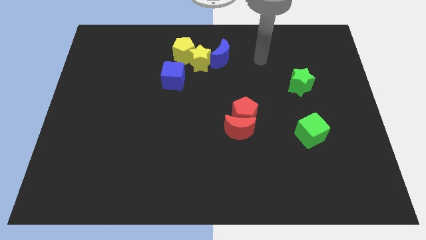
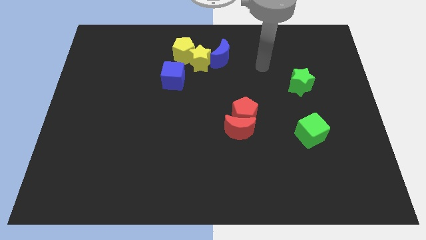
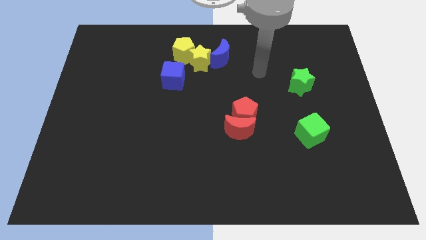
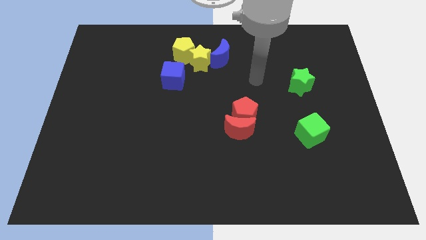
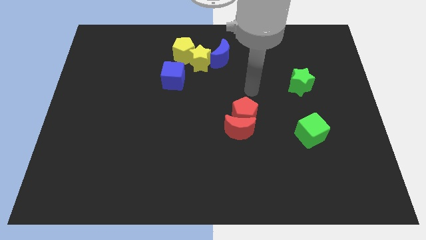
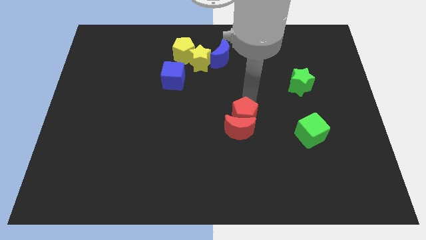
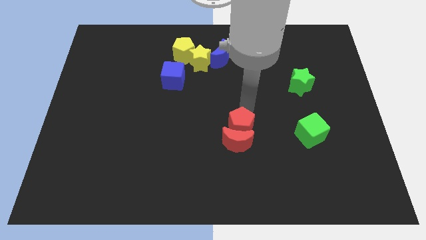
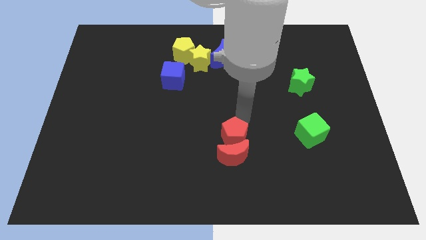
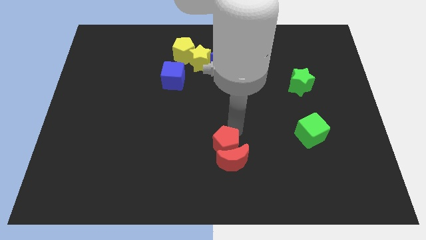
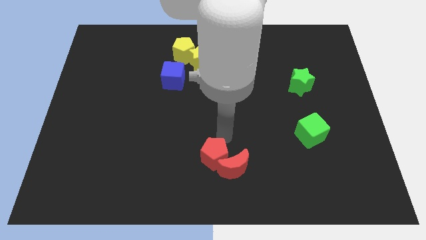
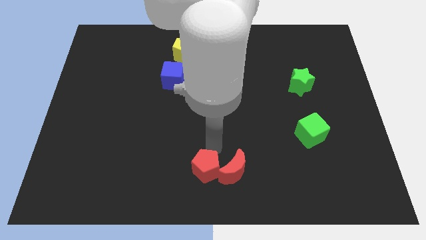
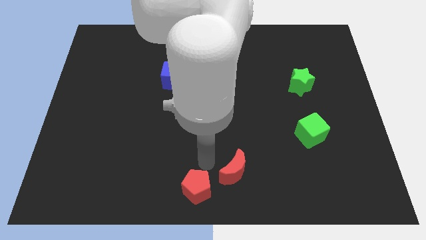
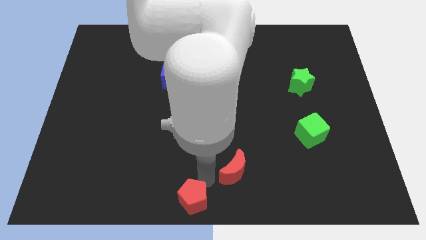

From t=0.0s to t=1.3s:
move the red moon away from the red pentagon

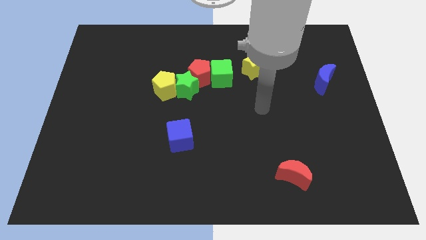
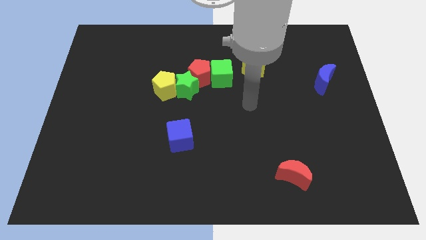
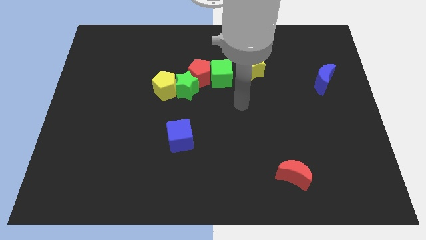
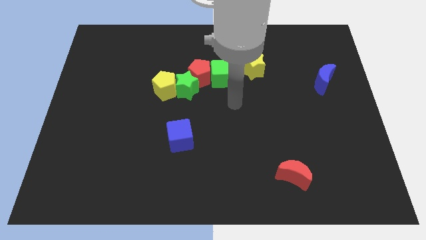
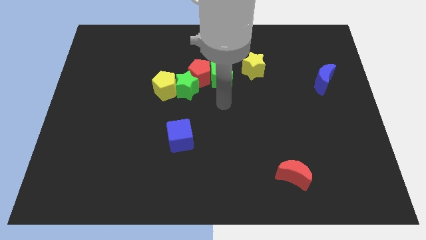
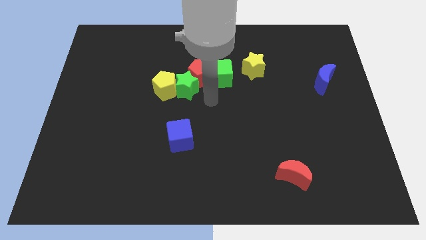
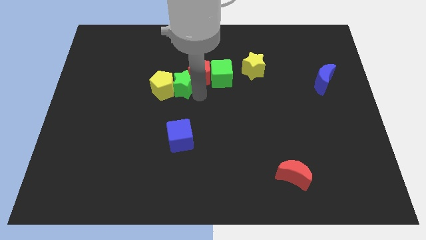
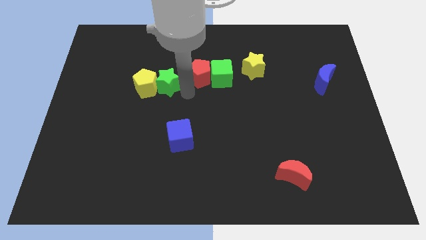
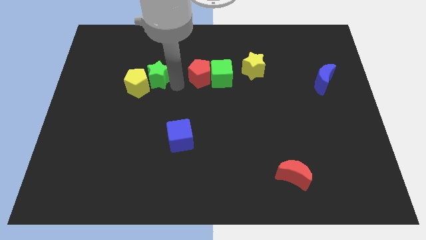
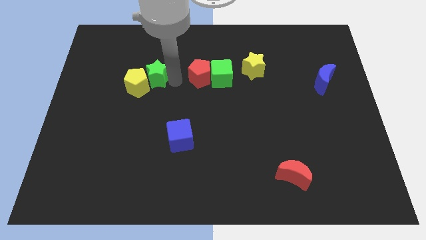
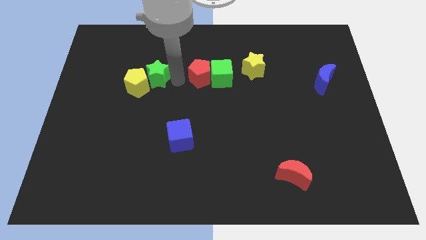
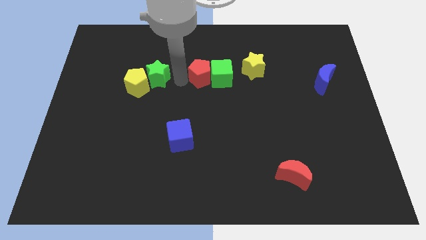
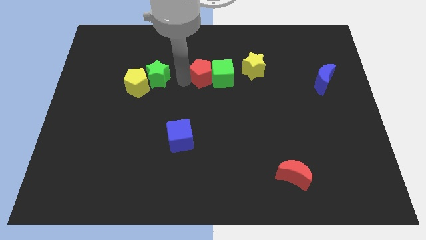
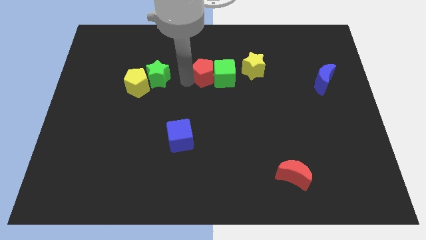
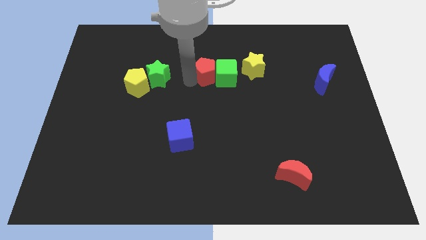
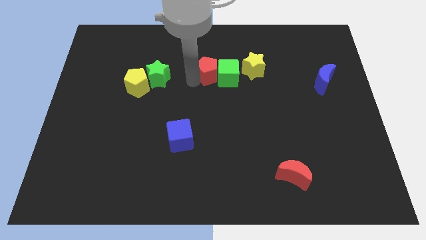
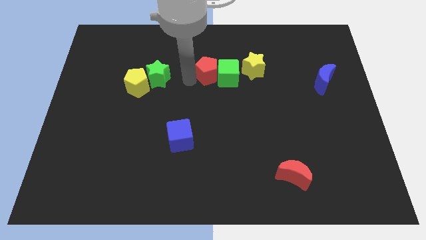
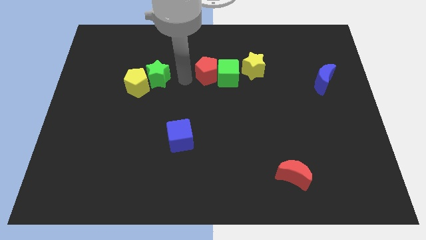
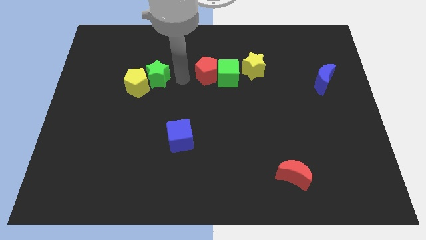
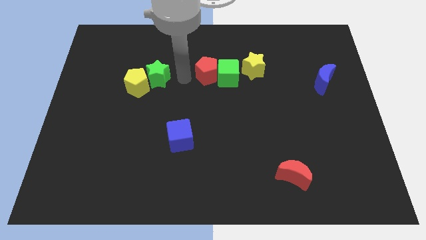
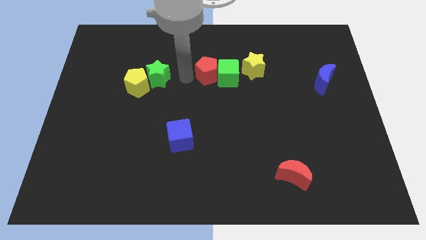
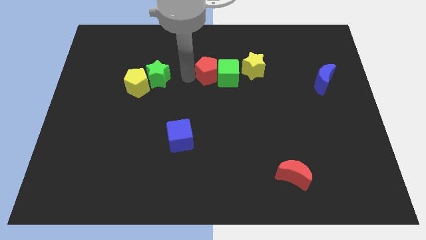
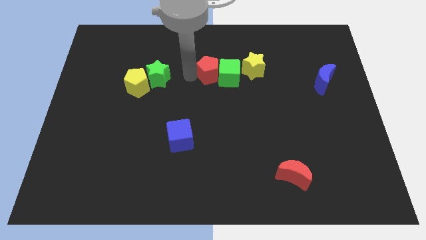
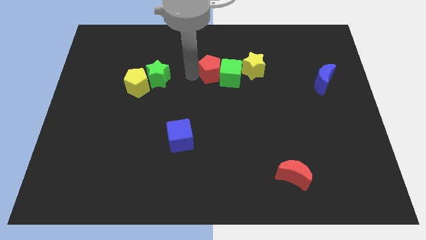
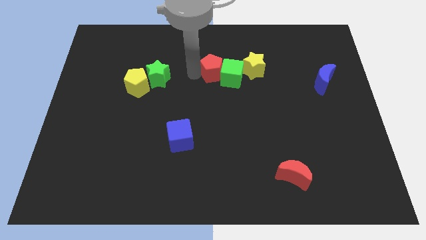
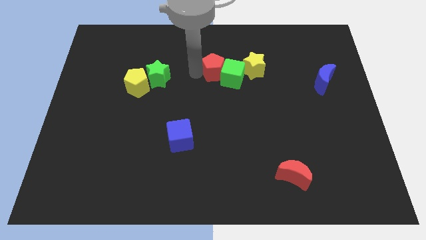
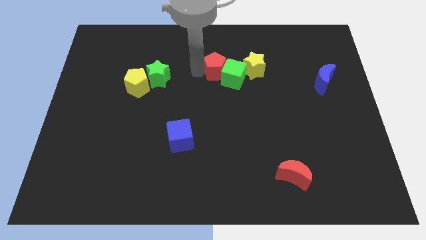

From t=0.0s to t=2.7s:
pull the red pentagon apart from the group of blocks

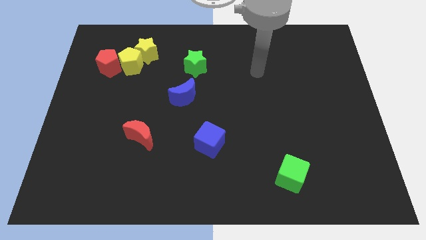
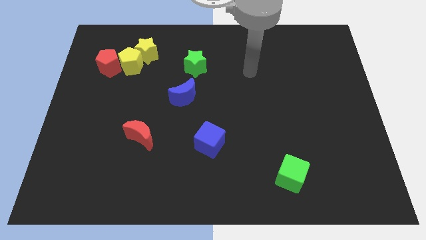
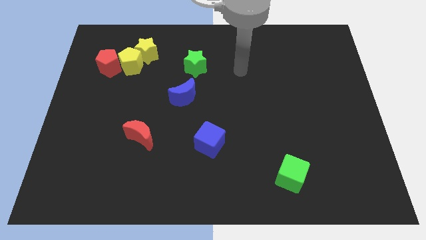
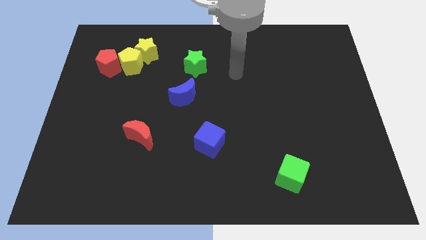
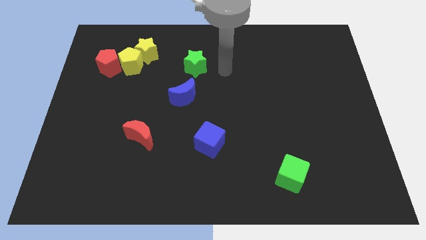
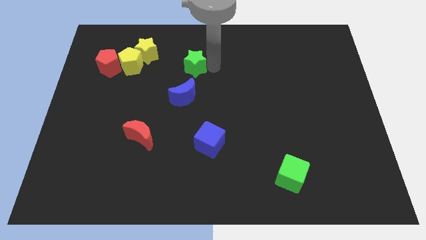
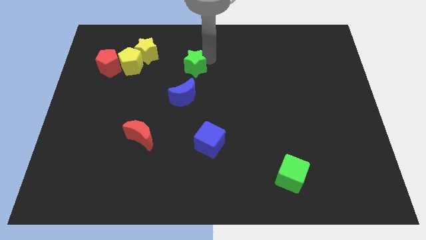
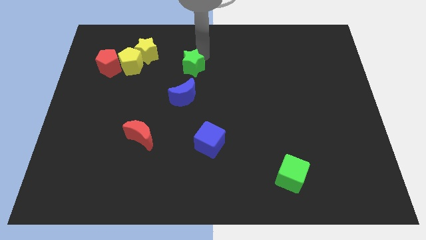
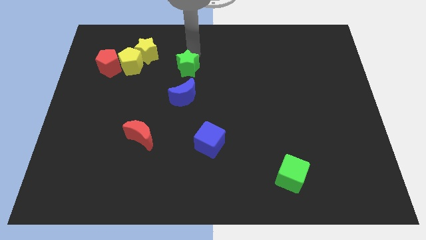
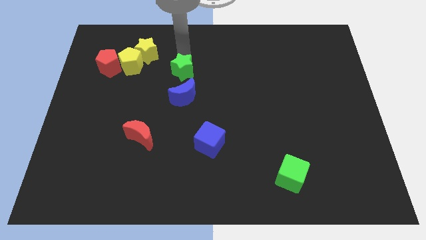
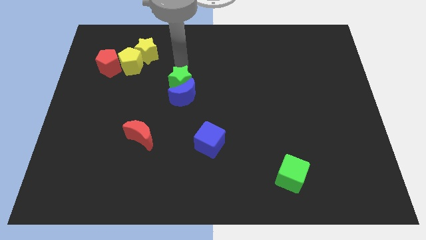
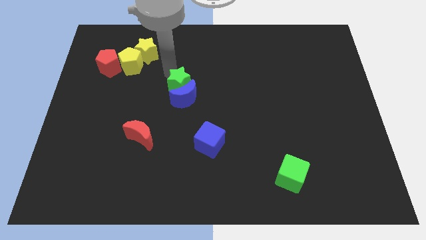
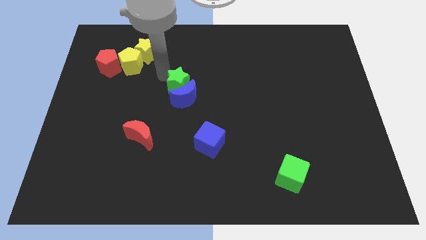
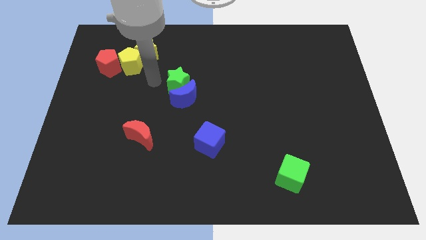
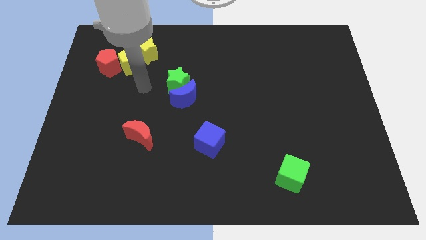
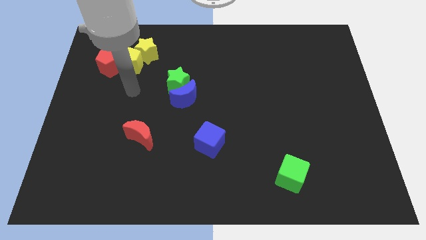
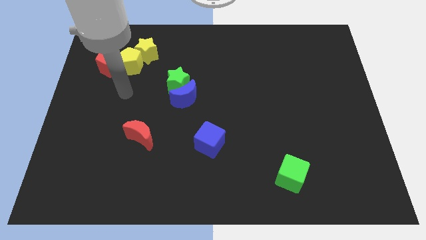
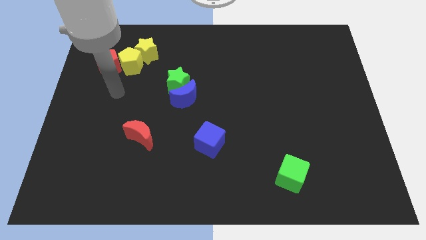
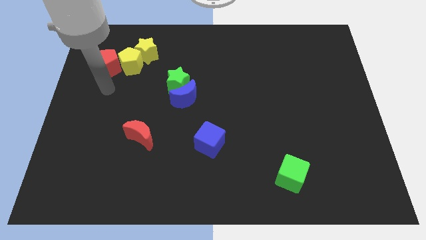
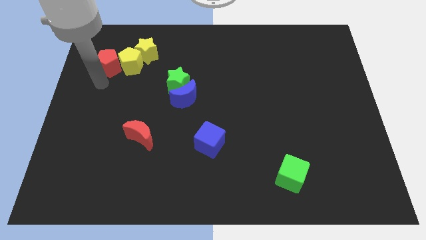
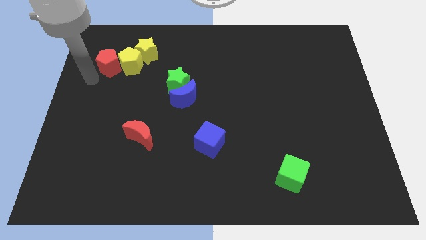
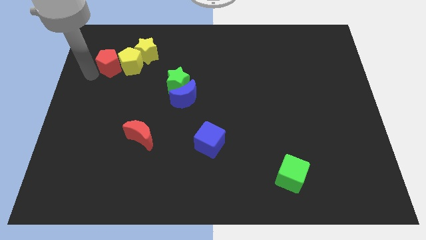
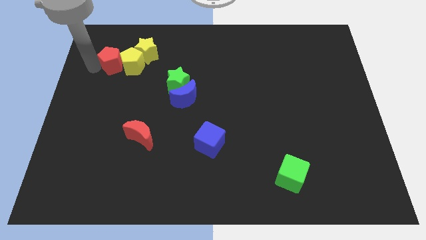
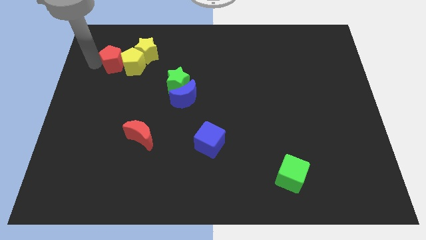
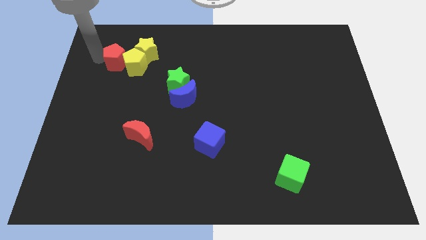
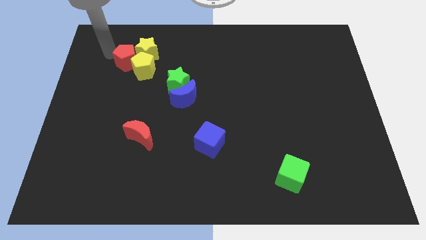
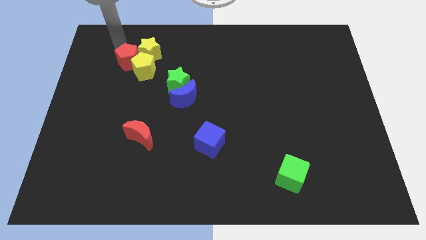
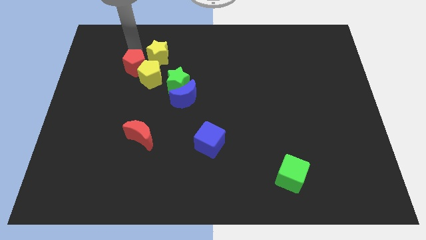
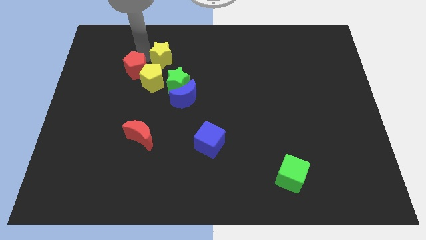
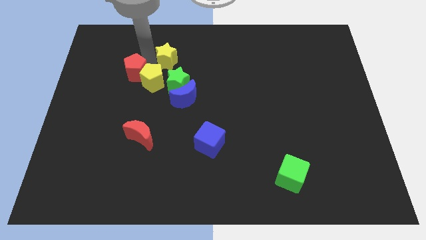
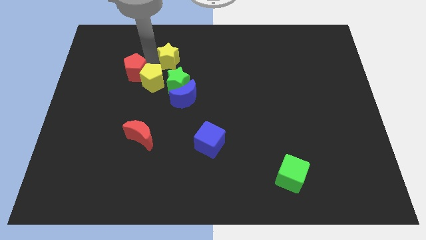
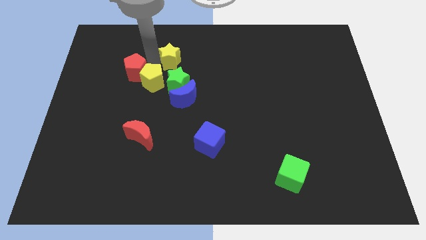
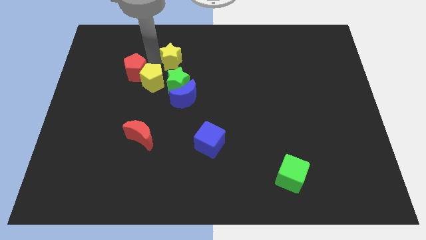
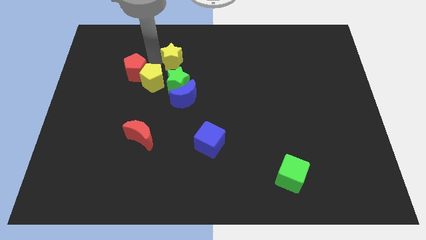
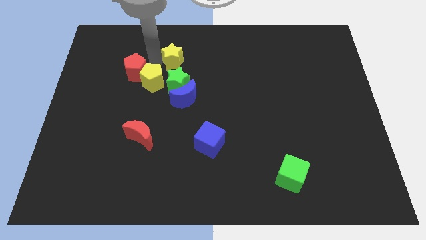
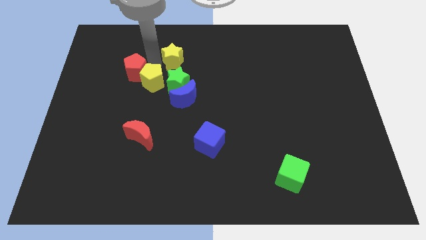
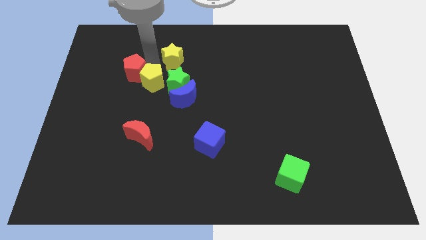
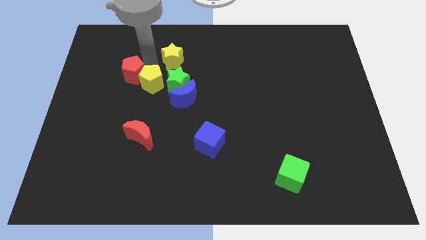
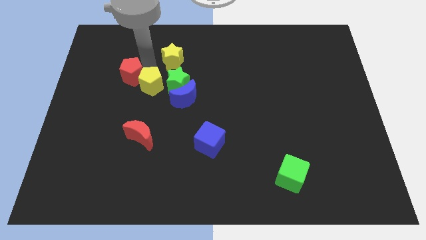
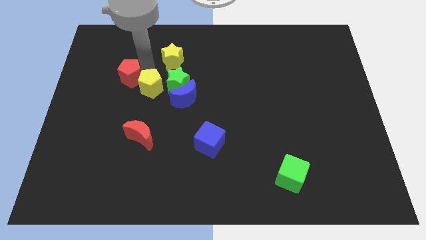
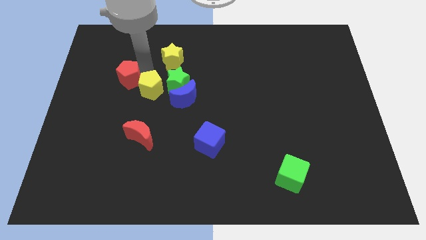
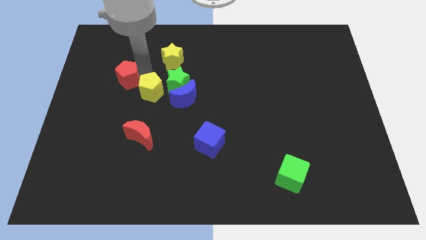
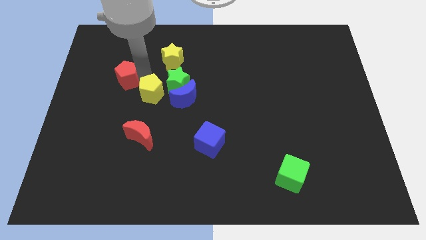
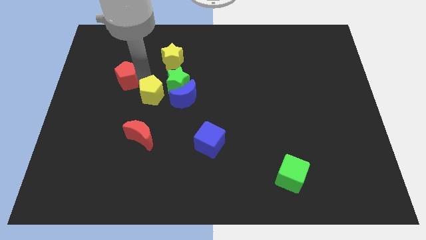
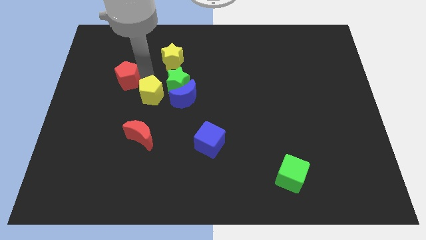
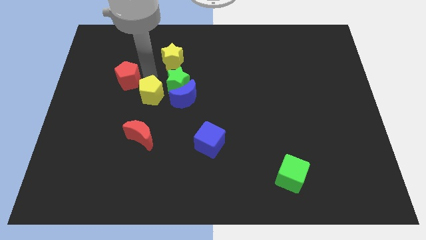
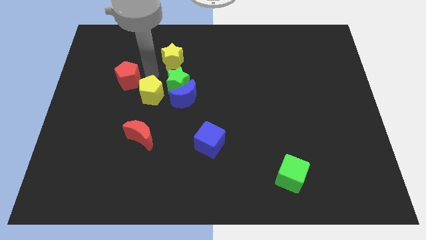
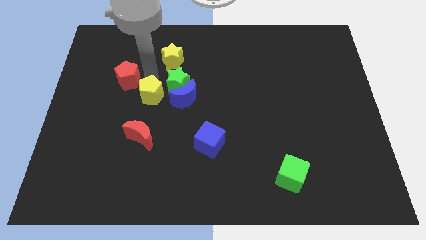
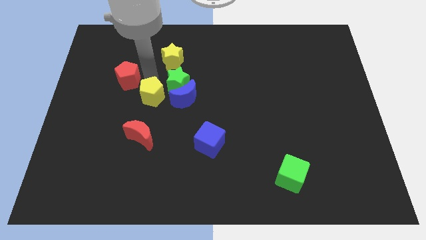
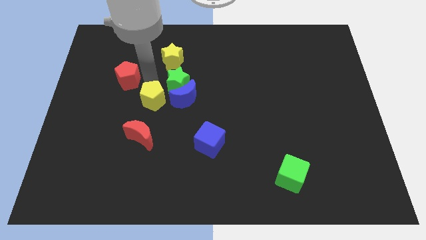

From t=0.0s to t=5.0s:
pull the yellow pentagon apart from the yellow star and red pentagon

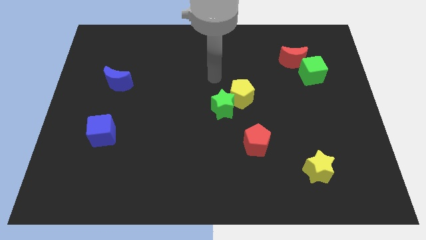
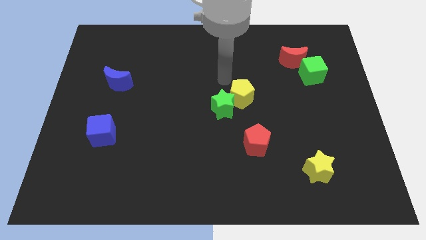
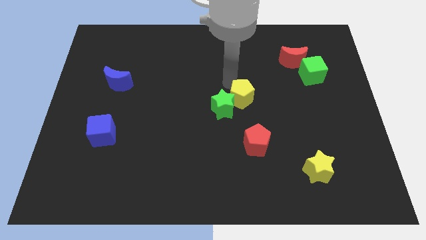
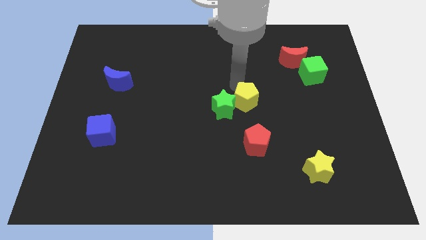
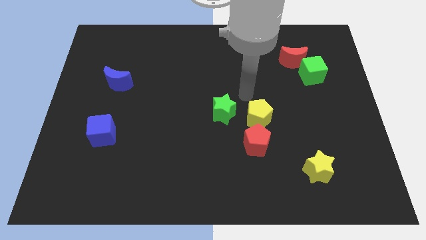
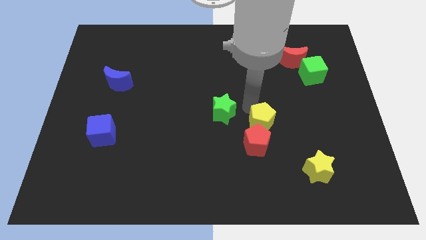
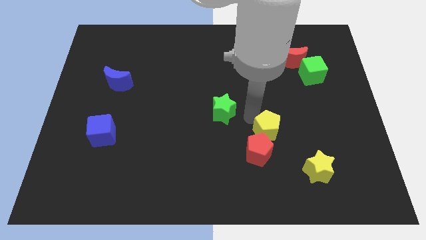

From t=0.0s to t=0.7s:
pull the green star apart from the yellow pentagon
